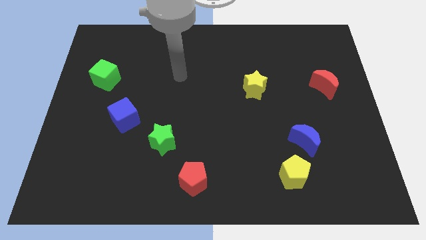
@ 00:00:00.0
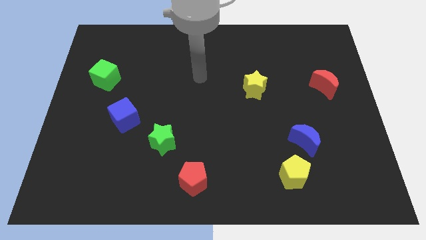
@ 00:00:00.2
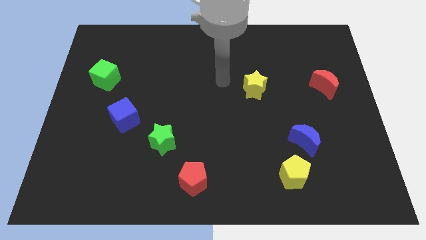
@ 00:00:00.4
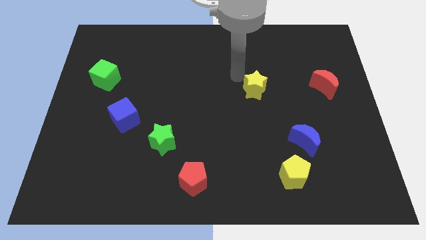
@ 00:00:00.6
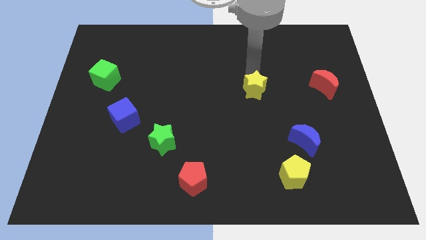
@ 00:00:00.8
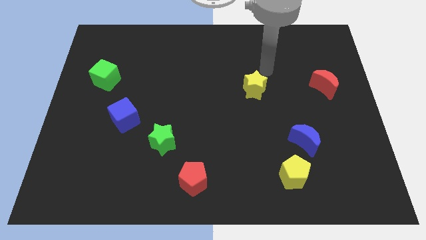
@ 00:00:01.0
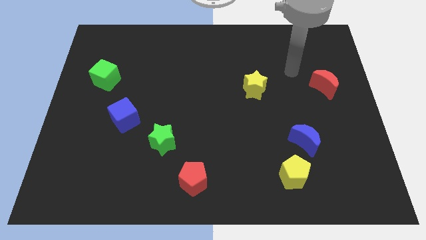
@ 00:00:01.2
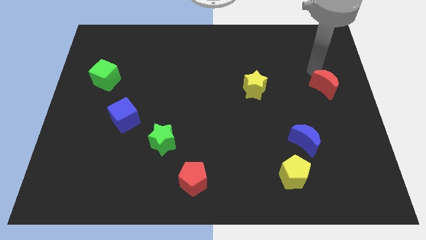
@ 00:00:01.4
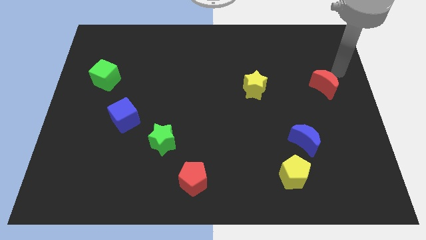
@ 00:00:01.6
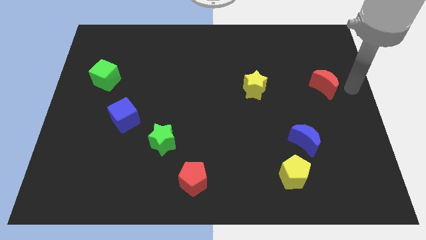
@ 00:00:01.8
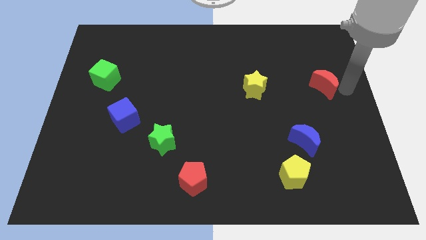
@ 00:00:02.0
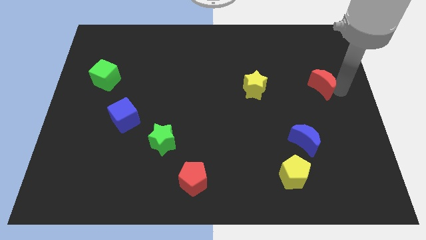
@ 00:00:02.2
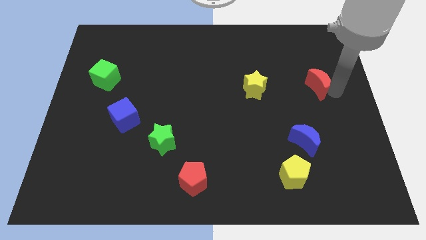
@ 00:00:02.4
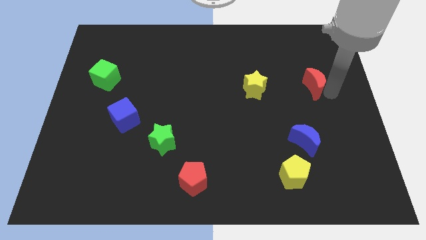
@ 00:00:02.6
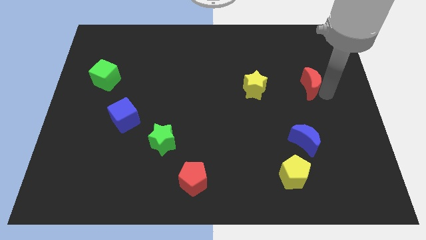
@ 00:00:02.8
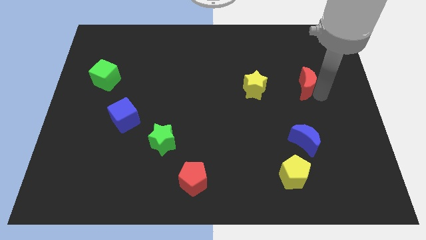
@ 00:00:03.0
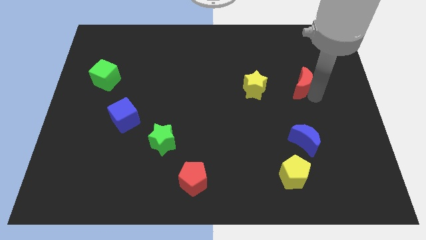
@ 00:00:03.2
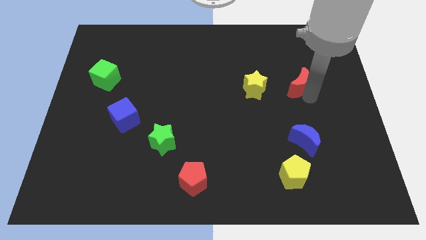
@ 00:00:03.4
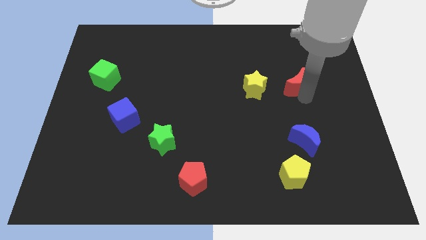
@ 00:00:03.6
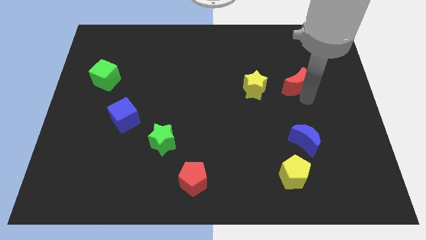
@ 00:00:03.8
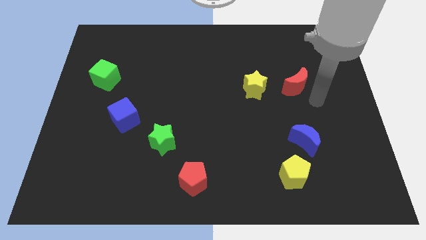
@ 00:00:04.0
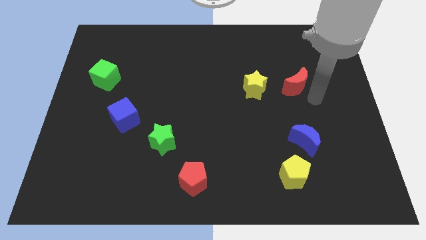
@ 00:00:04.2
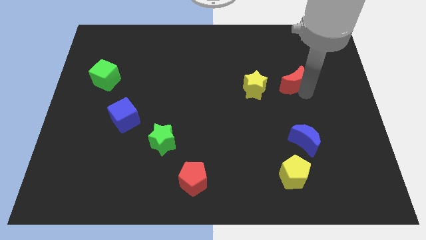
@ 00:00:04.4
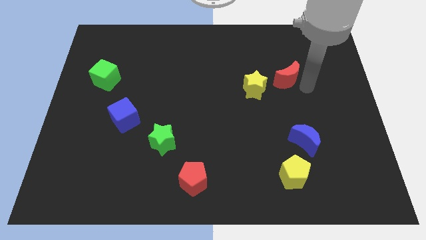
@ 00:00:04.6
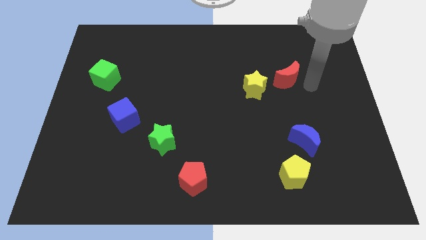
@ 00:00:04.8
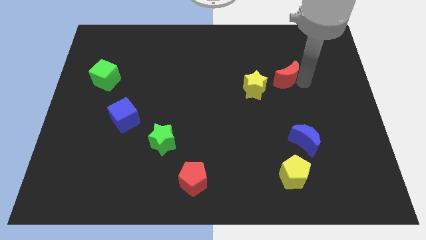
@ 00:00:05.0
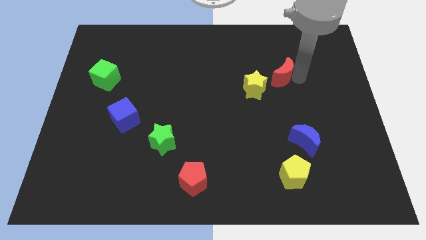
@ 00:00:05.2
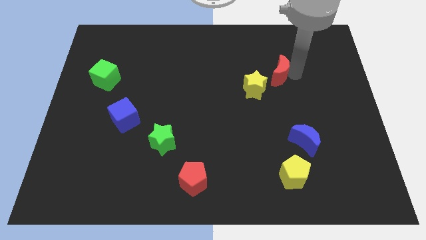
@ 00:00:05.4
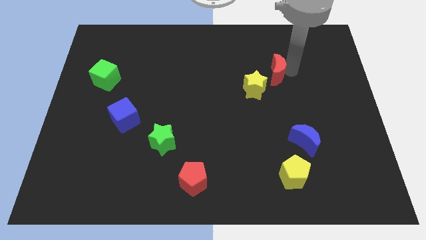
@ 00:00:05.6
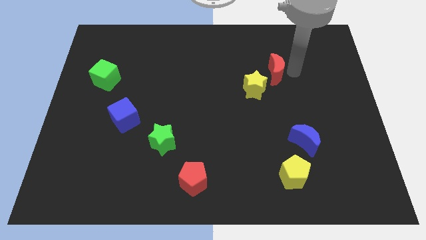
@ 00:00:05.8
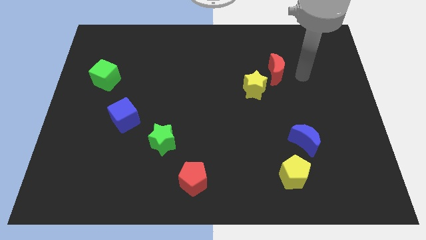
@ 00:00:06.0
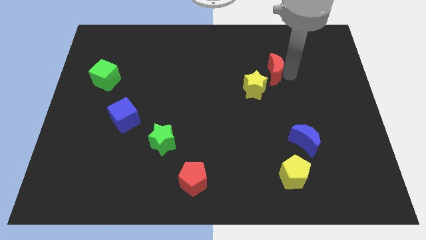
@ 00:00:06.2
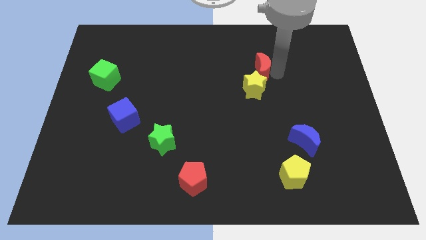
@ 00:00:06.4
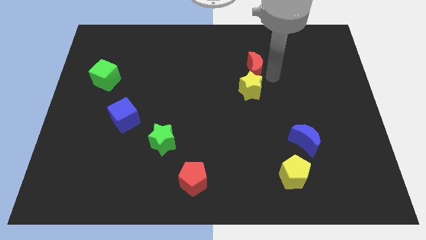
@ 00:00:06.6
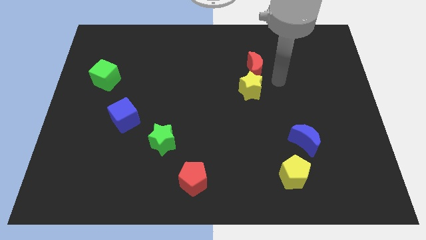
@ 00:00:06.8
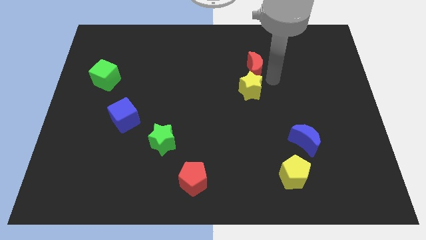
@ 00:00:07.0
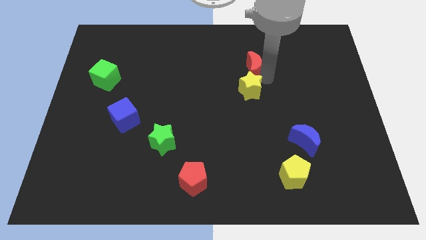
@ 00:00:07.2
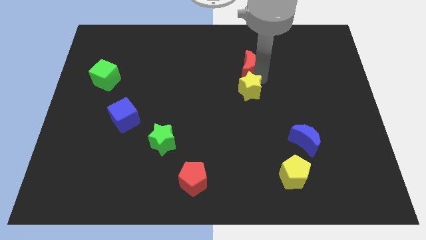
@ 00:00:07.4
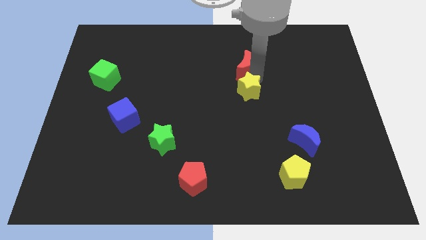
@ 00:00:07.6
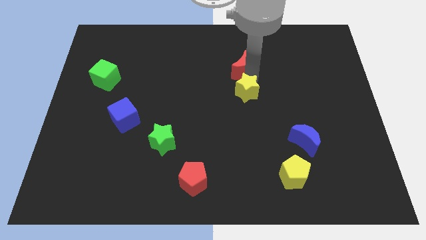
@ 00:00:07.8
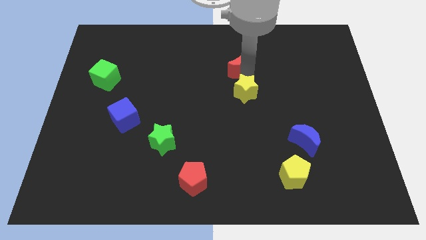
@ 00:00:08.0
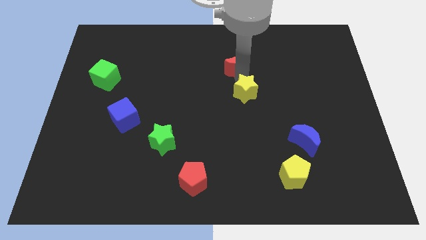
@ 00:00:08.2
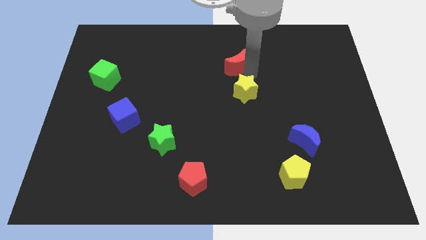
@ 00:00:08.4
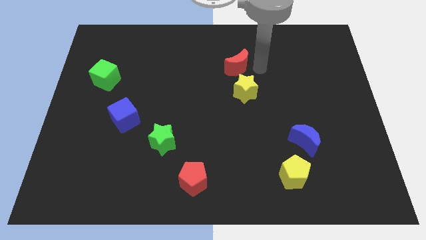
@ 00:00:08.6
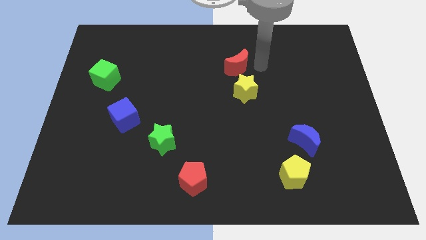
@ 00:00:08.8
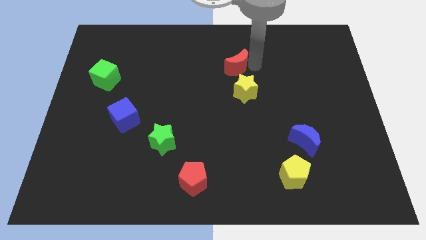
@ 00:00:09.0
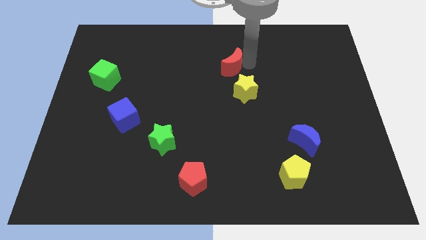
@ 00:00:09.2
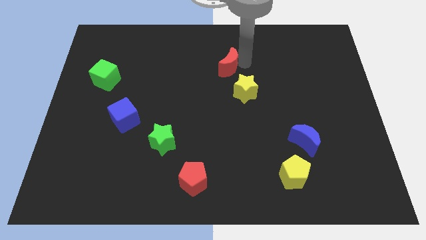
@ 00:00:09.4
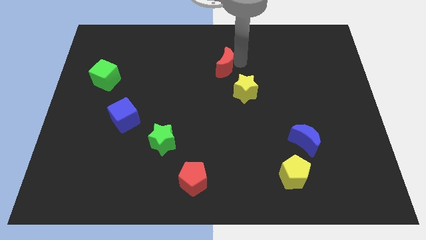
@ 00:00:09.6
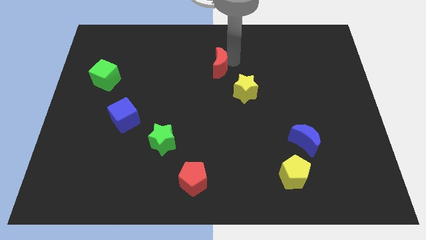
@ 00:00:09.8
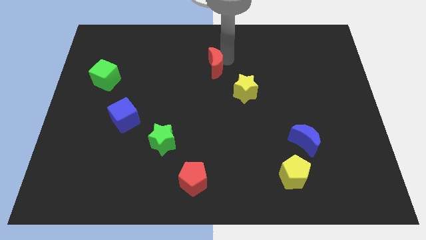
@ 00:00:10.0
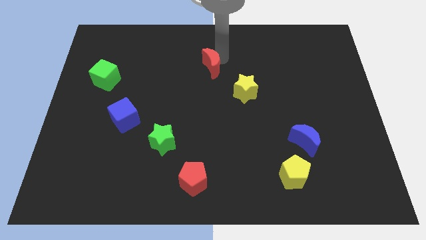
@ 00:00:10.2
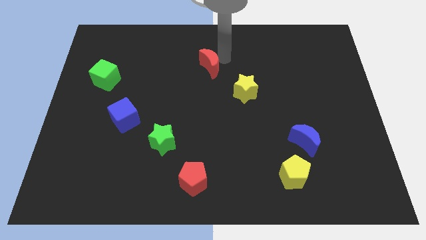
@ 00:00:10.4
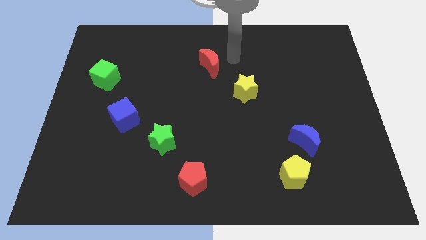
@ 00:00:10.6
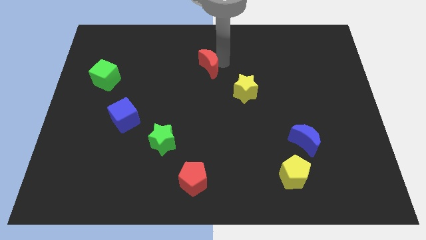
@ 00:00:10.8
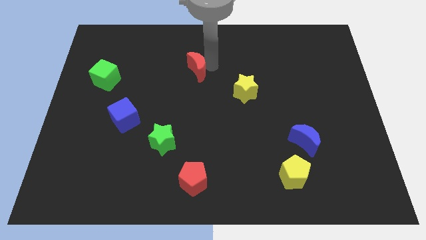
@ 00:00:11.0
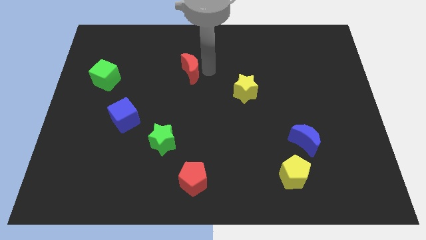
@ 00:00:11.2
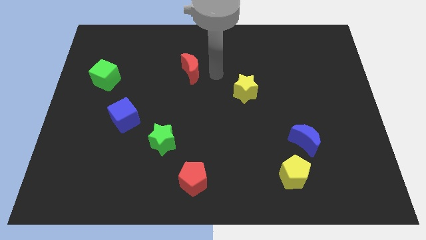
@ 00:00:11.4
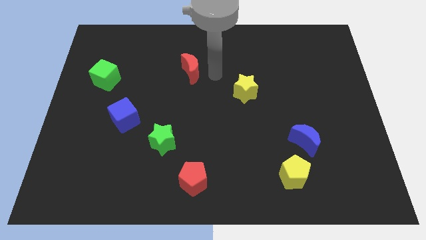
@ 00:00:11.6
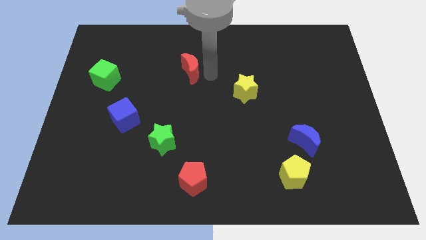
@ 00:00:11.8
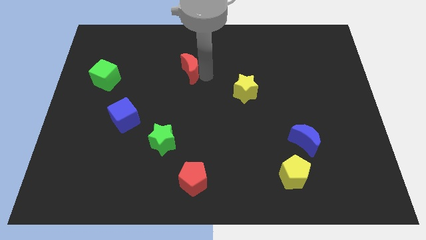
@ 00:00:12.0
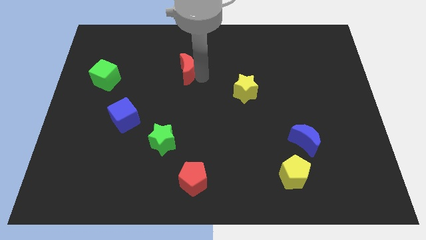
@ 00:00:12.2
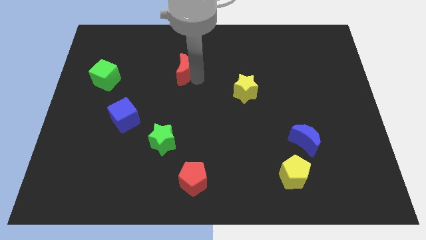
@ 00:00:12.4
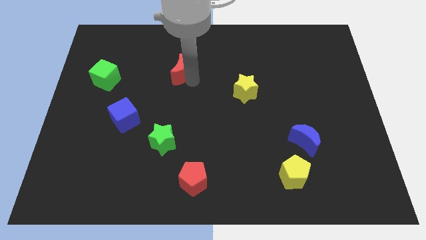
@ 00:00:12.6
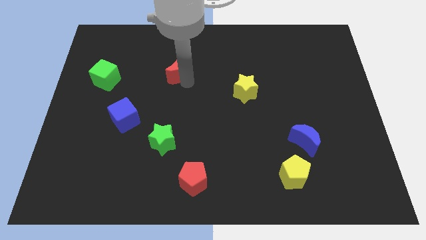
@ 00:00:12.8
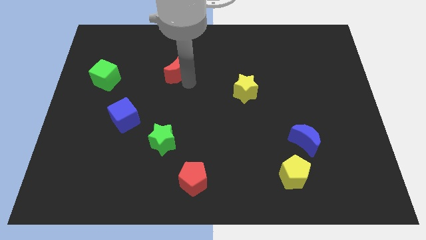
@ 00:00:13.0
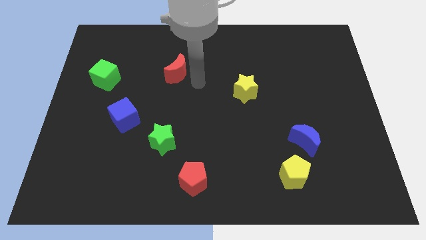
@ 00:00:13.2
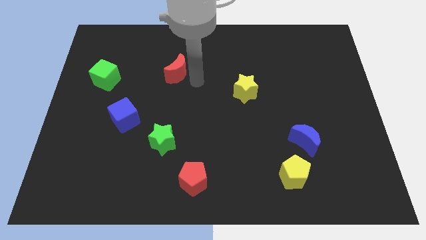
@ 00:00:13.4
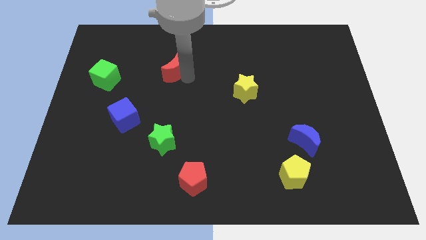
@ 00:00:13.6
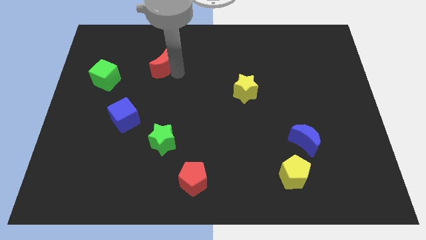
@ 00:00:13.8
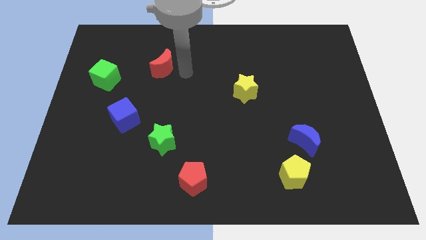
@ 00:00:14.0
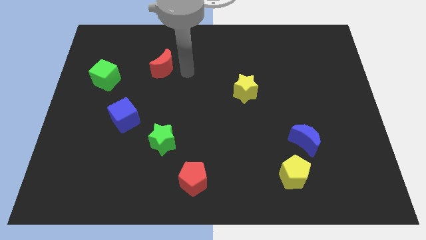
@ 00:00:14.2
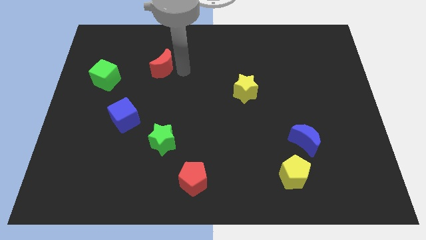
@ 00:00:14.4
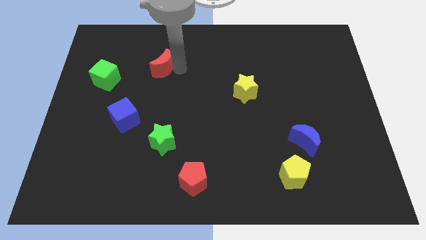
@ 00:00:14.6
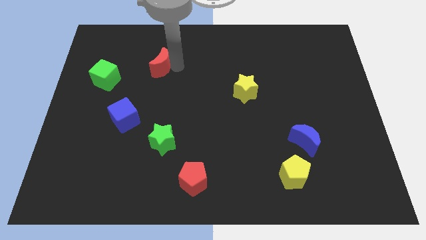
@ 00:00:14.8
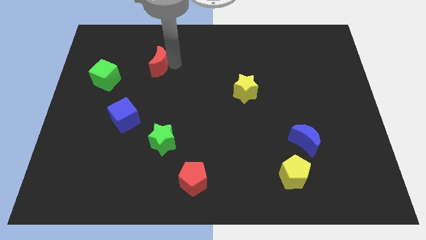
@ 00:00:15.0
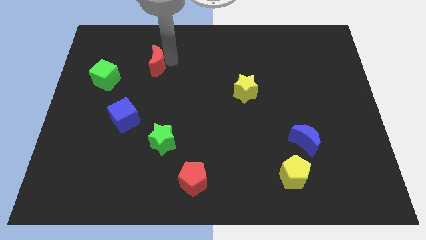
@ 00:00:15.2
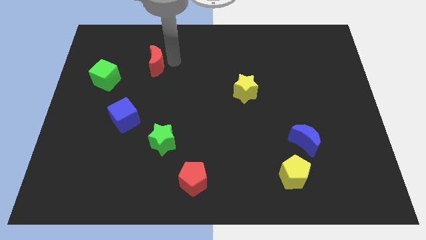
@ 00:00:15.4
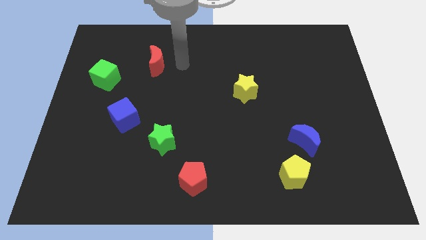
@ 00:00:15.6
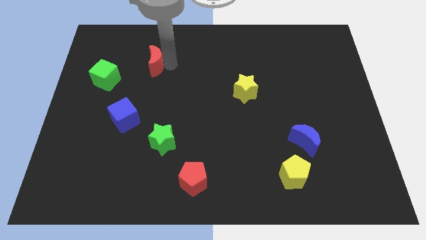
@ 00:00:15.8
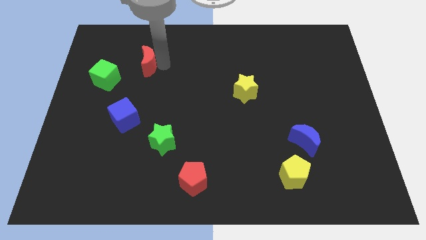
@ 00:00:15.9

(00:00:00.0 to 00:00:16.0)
push the red moon to the top right of the green cube
